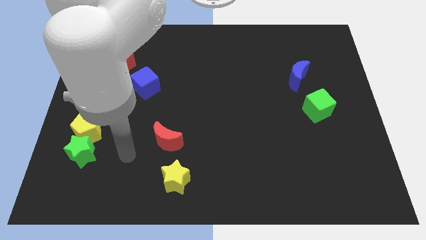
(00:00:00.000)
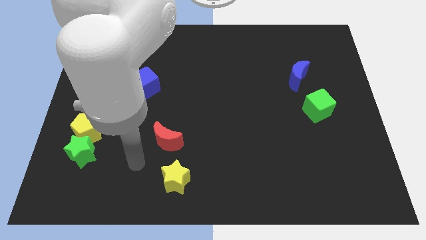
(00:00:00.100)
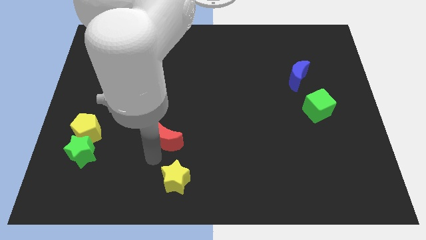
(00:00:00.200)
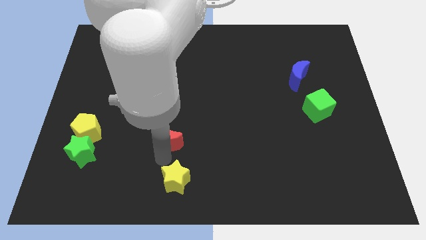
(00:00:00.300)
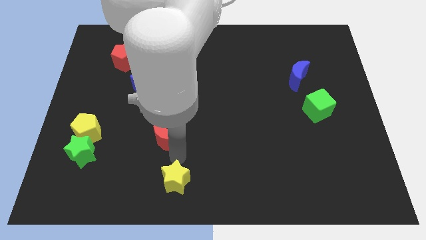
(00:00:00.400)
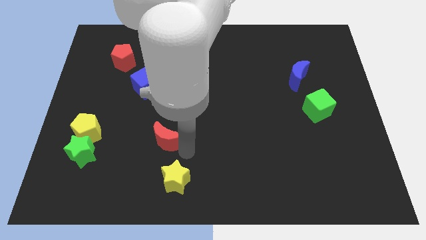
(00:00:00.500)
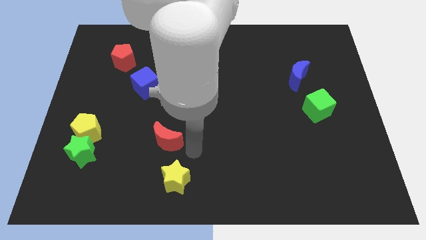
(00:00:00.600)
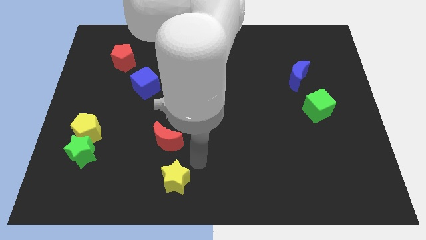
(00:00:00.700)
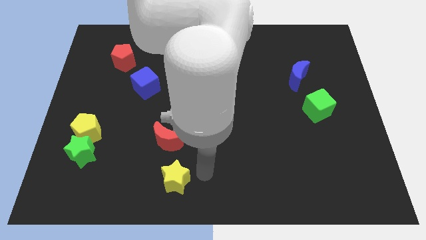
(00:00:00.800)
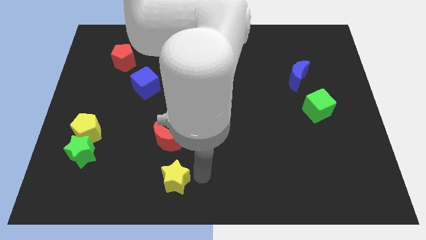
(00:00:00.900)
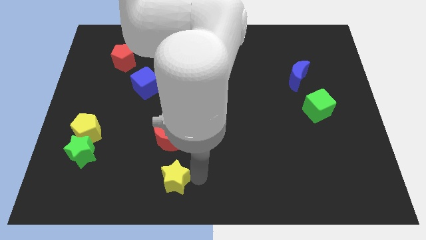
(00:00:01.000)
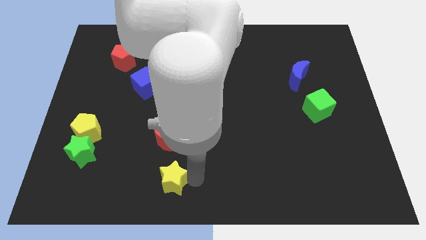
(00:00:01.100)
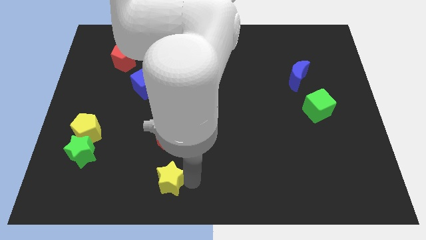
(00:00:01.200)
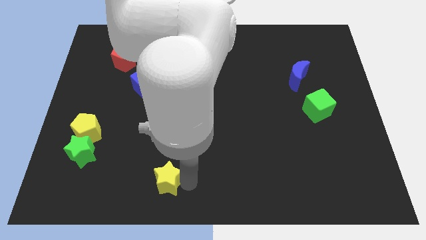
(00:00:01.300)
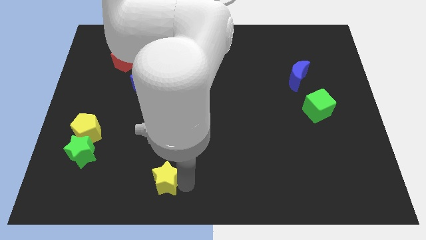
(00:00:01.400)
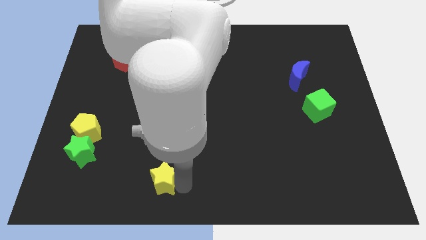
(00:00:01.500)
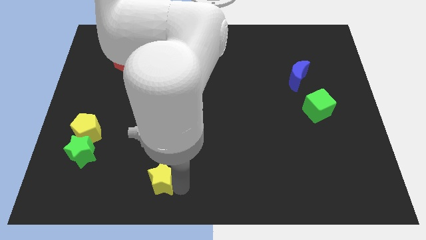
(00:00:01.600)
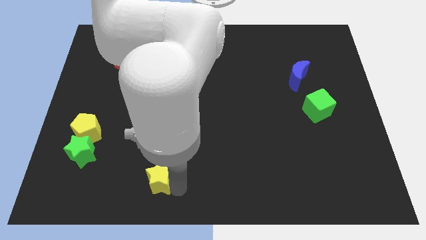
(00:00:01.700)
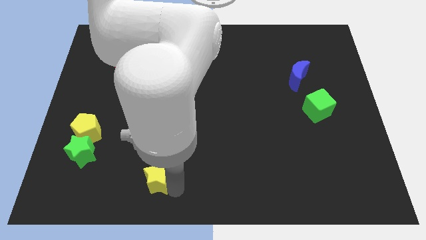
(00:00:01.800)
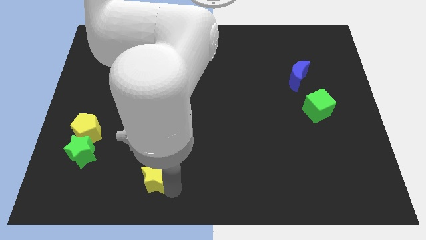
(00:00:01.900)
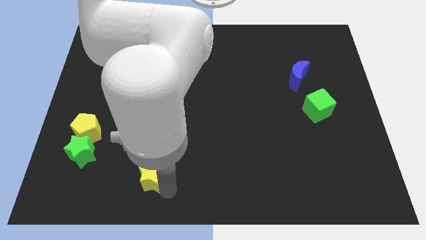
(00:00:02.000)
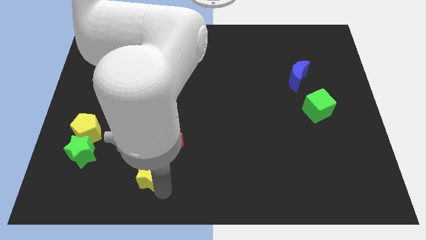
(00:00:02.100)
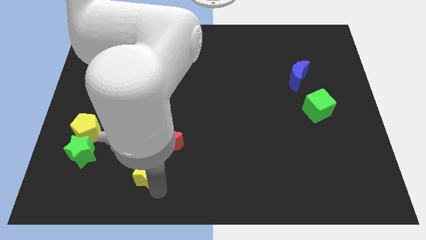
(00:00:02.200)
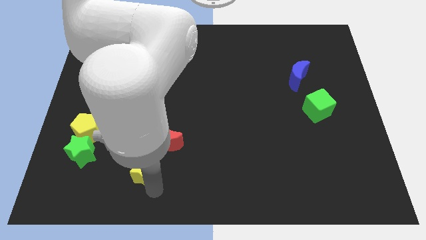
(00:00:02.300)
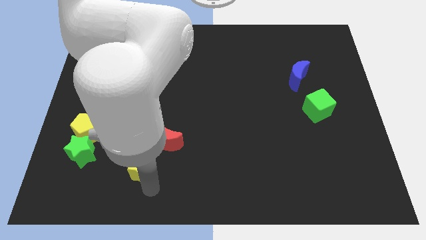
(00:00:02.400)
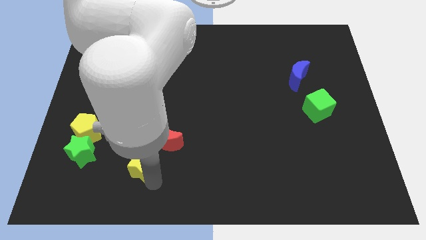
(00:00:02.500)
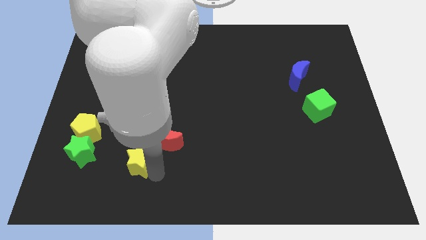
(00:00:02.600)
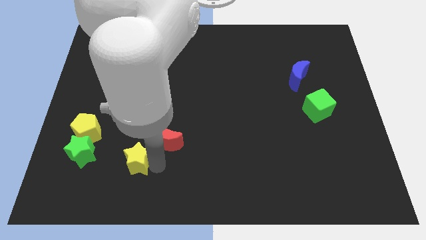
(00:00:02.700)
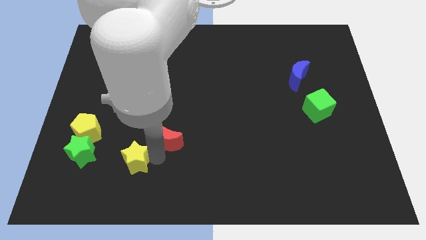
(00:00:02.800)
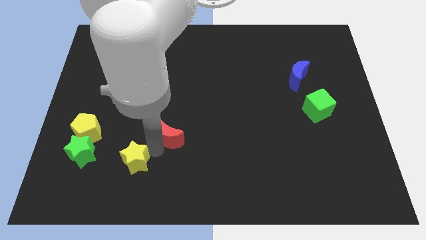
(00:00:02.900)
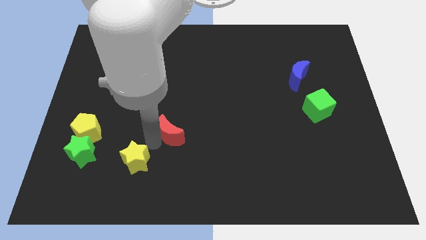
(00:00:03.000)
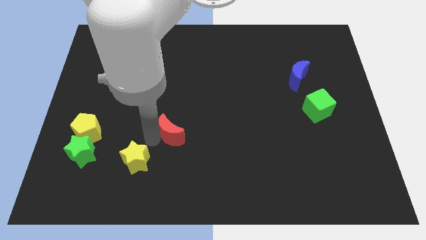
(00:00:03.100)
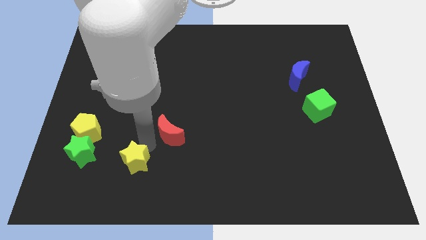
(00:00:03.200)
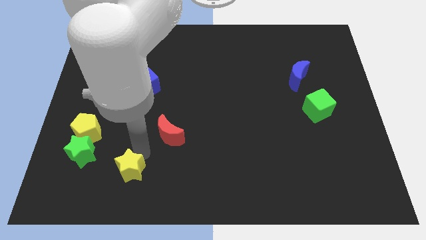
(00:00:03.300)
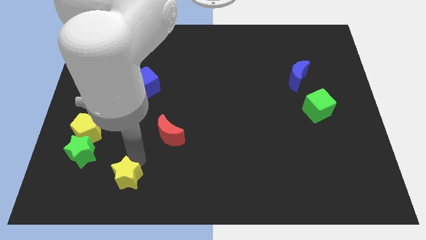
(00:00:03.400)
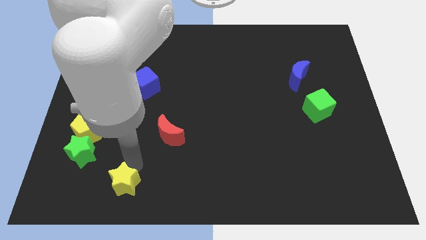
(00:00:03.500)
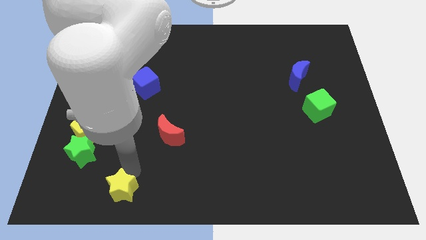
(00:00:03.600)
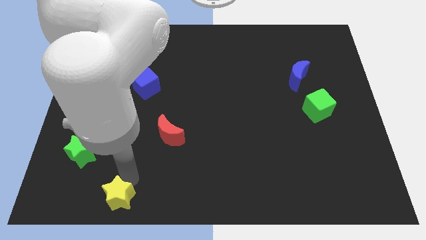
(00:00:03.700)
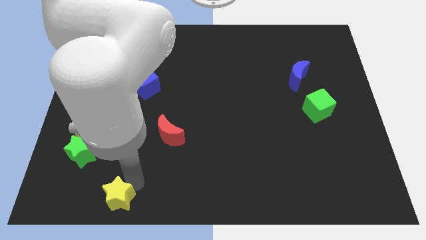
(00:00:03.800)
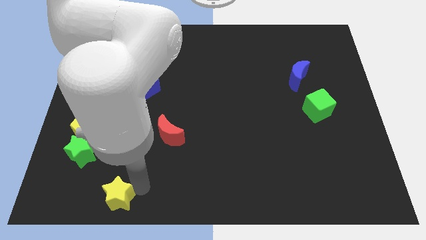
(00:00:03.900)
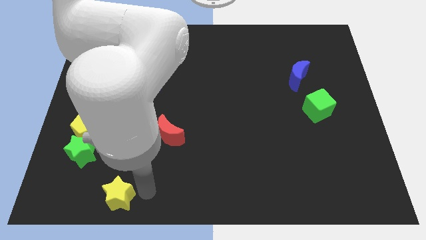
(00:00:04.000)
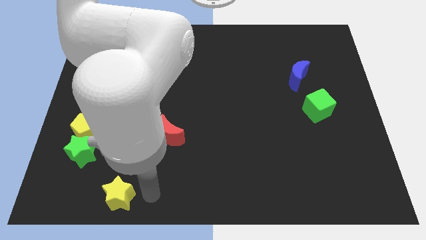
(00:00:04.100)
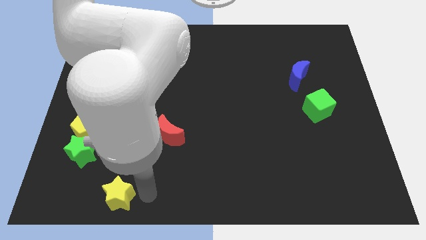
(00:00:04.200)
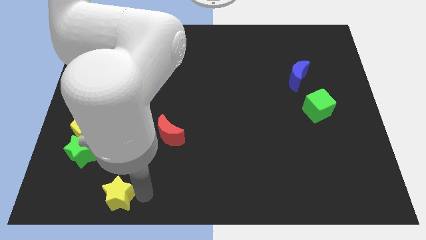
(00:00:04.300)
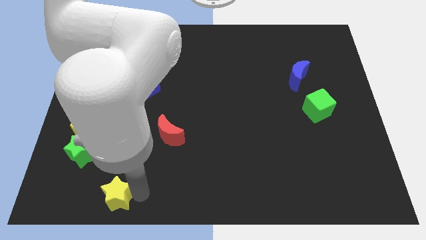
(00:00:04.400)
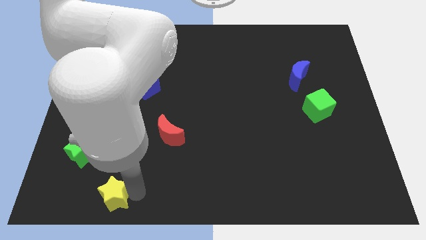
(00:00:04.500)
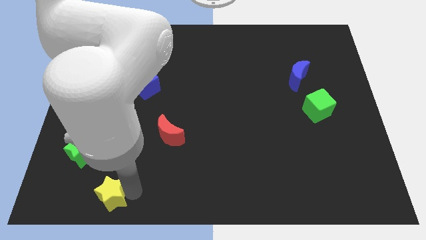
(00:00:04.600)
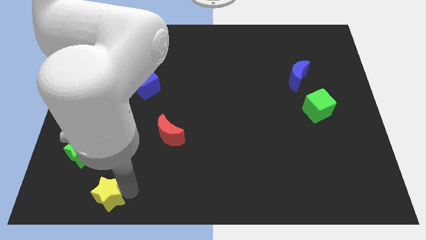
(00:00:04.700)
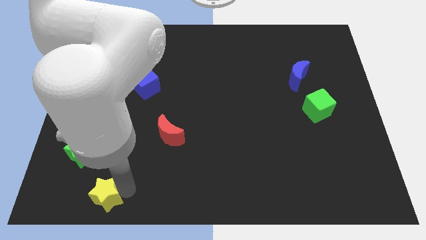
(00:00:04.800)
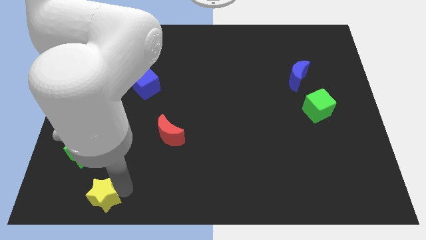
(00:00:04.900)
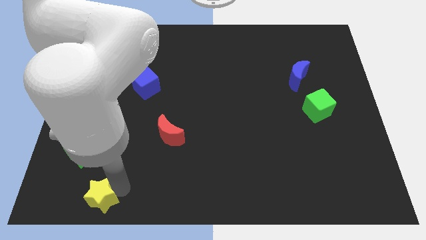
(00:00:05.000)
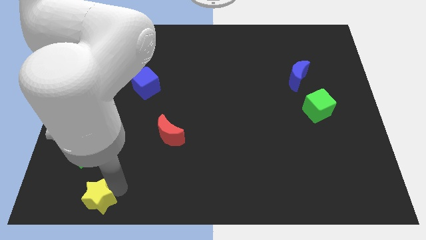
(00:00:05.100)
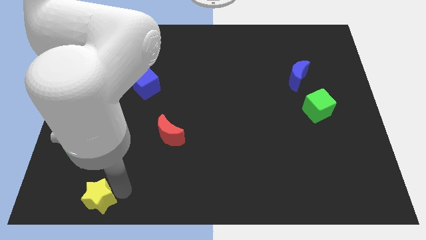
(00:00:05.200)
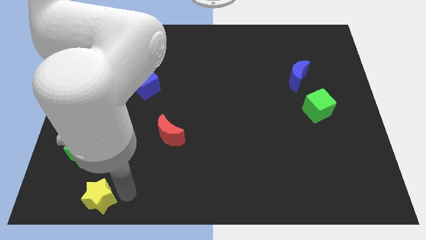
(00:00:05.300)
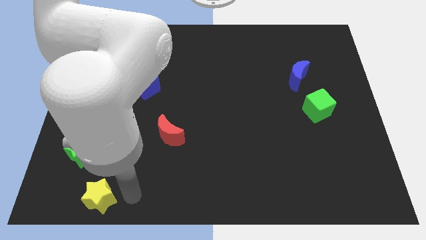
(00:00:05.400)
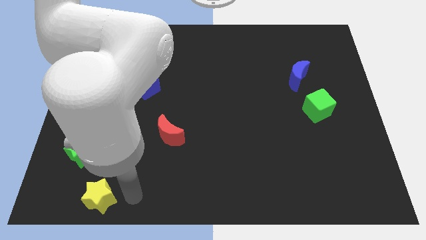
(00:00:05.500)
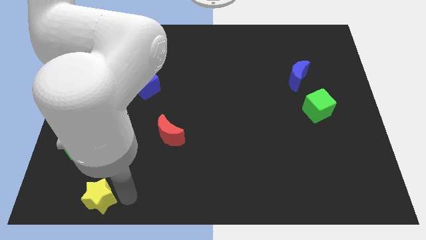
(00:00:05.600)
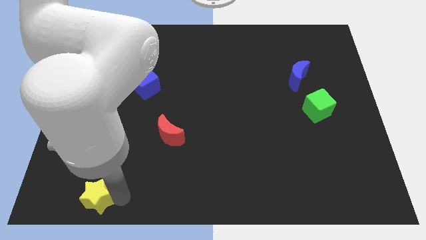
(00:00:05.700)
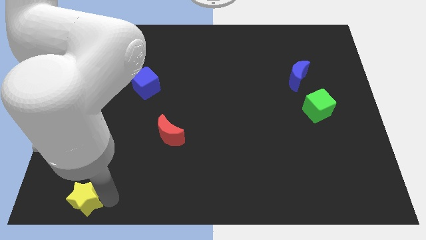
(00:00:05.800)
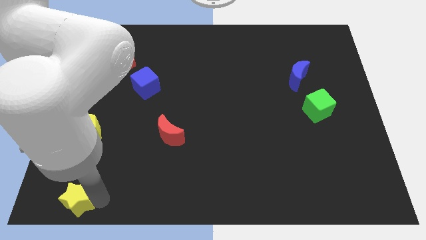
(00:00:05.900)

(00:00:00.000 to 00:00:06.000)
slide the yellow star to the bottom left

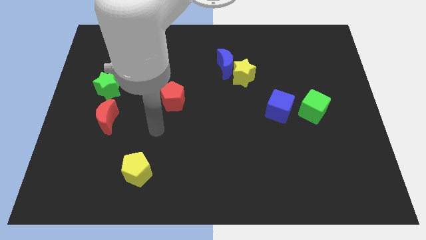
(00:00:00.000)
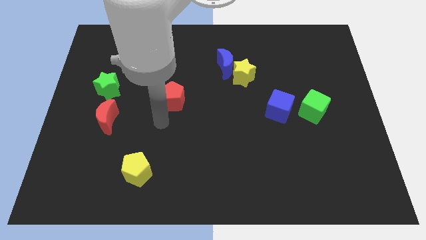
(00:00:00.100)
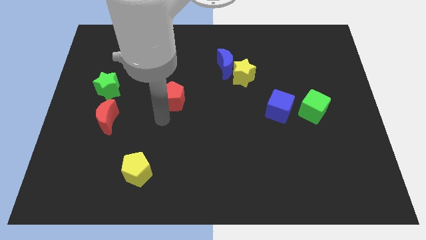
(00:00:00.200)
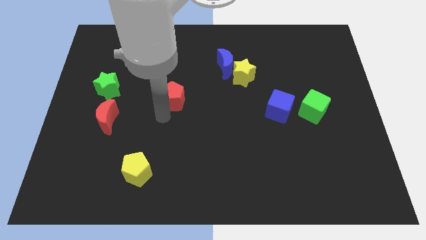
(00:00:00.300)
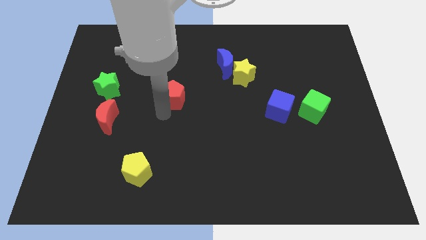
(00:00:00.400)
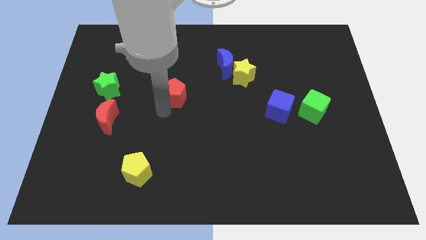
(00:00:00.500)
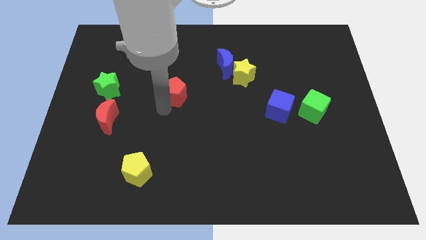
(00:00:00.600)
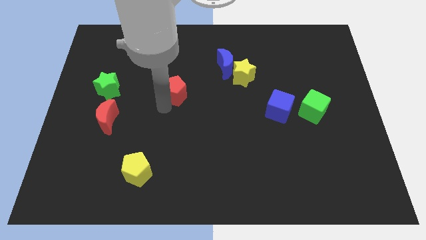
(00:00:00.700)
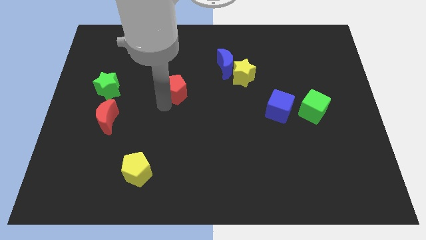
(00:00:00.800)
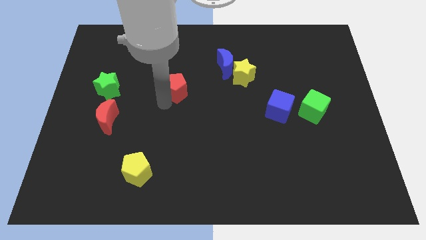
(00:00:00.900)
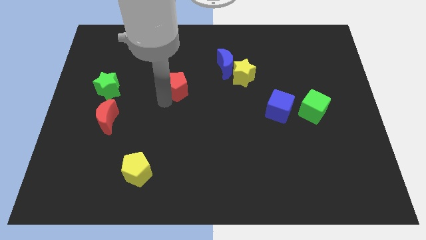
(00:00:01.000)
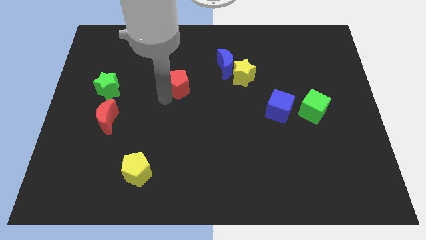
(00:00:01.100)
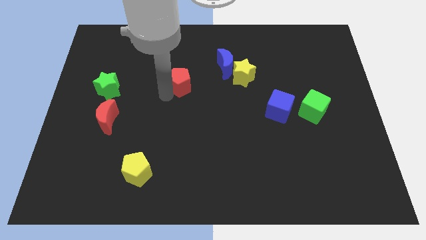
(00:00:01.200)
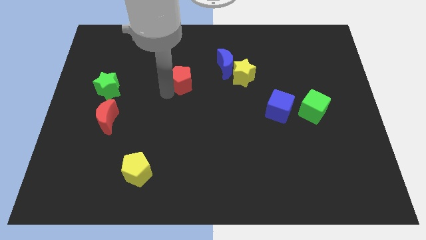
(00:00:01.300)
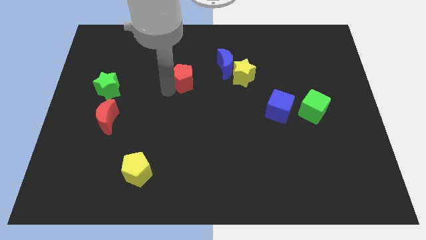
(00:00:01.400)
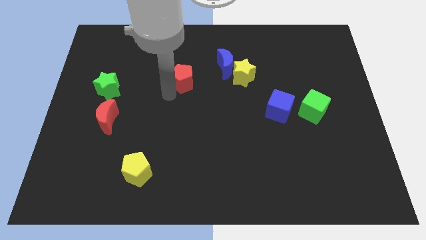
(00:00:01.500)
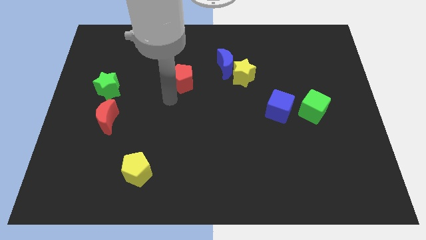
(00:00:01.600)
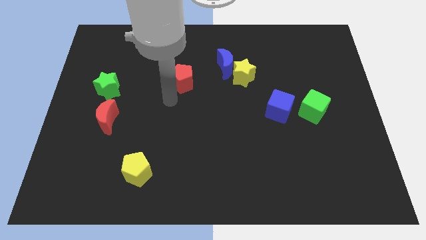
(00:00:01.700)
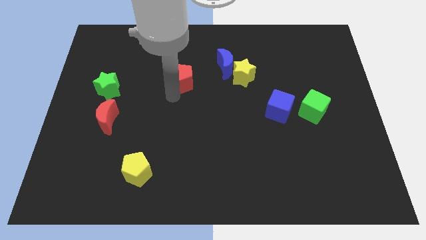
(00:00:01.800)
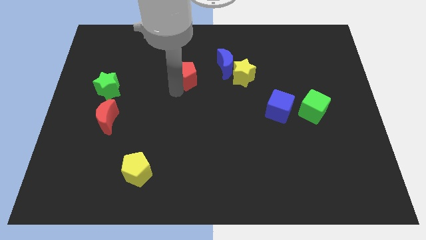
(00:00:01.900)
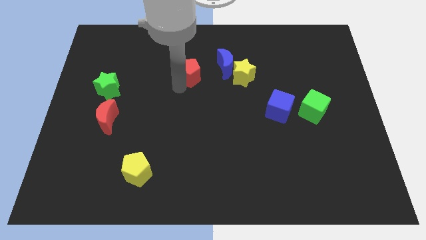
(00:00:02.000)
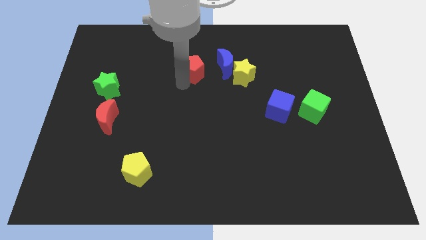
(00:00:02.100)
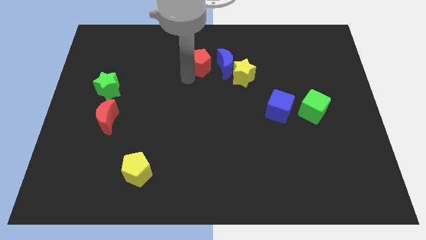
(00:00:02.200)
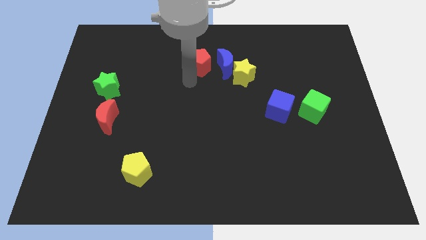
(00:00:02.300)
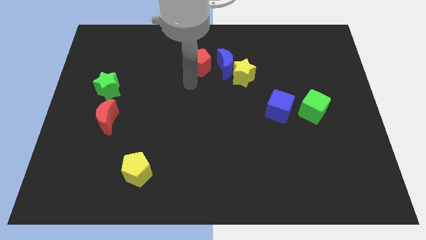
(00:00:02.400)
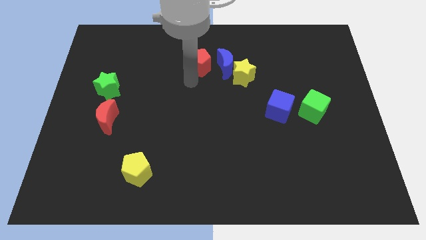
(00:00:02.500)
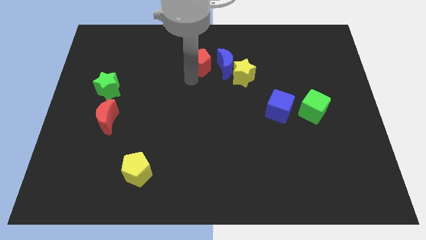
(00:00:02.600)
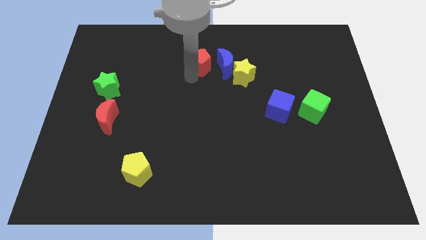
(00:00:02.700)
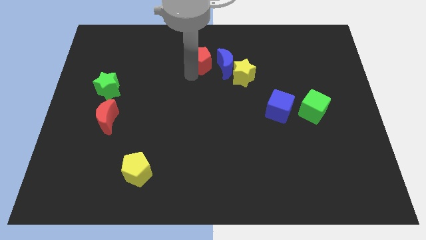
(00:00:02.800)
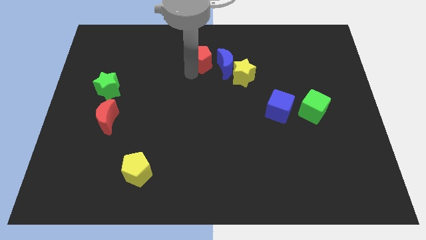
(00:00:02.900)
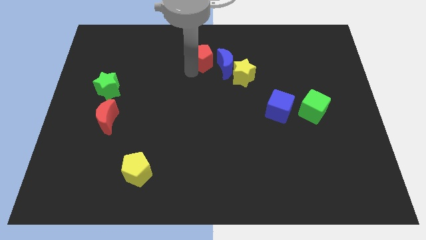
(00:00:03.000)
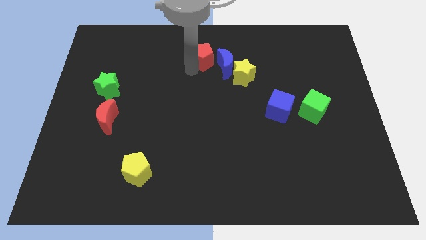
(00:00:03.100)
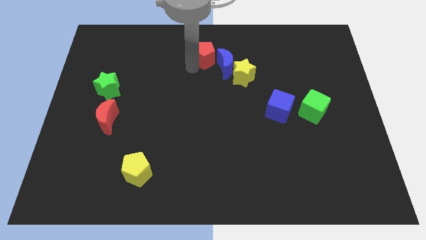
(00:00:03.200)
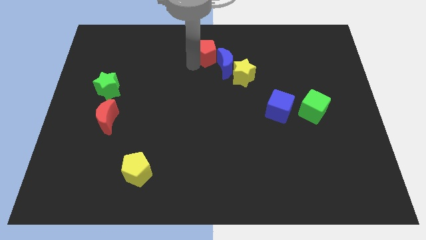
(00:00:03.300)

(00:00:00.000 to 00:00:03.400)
move the red pentagon to the top
